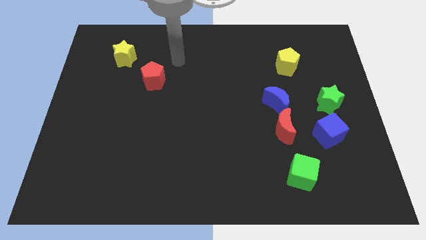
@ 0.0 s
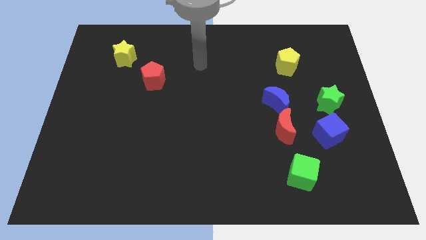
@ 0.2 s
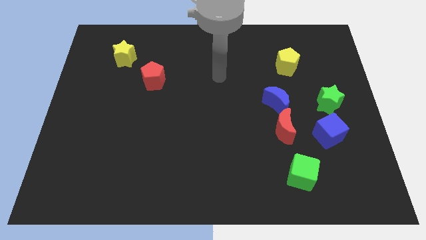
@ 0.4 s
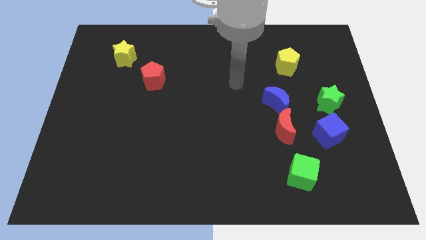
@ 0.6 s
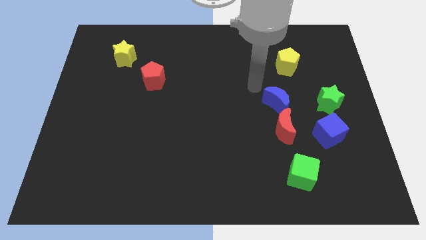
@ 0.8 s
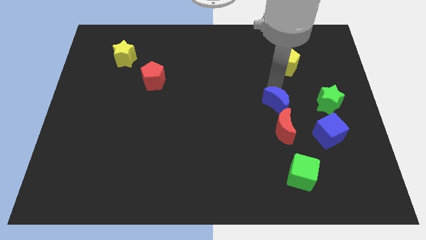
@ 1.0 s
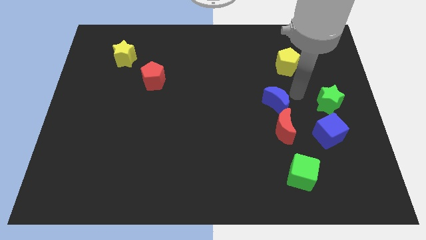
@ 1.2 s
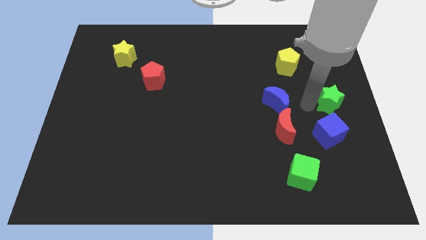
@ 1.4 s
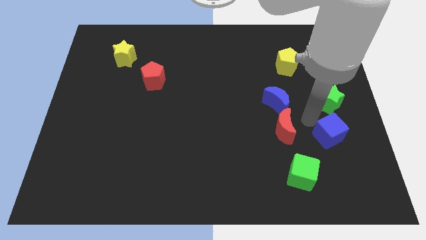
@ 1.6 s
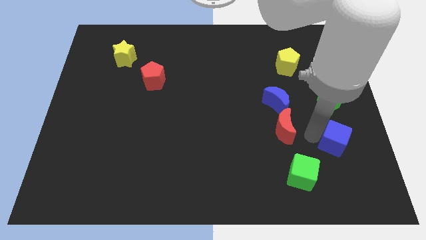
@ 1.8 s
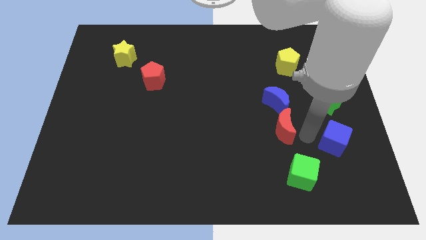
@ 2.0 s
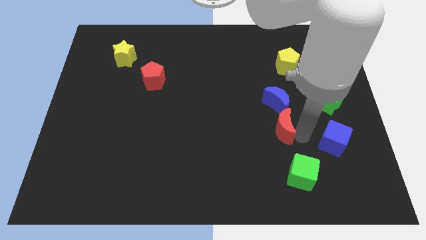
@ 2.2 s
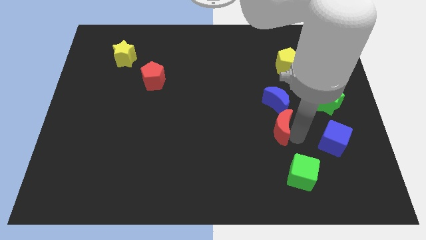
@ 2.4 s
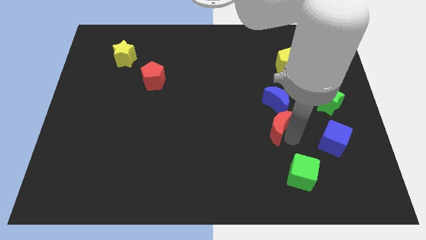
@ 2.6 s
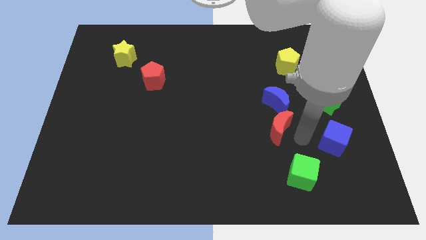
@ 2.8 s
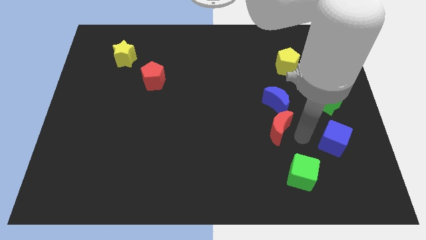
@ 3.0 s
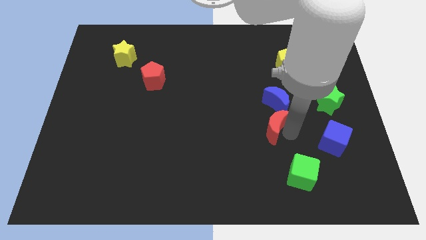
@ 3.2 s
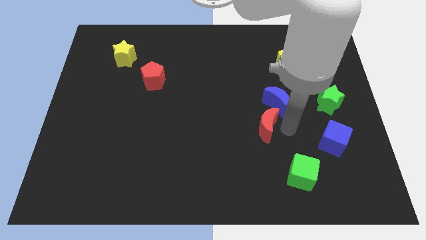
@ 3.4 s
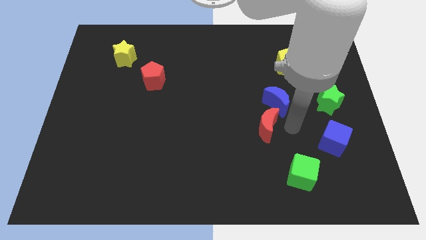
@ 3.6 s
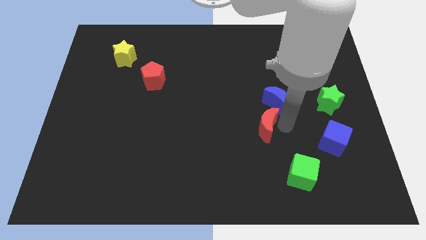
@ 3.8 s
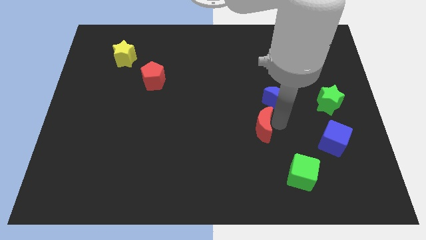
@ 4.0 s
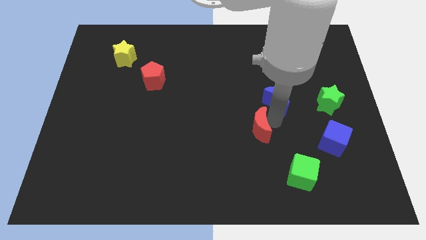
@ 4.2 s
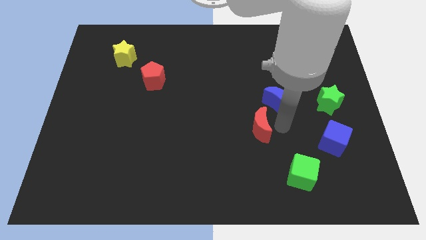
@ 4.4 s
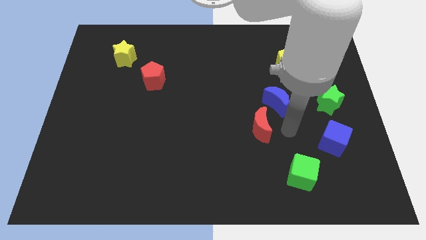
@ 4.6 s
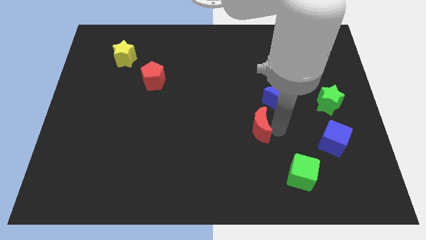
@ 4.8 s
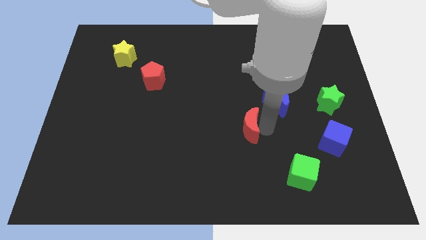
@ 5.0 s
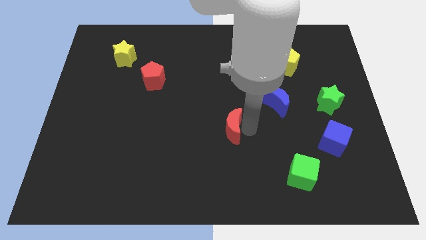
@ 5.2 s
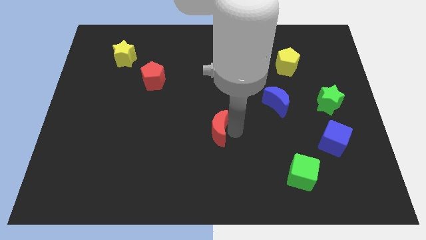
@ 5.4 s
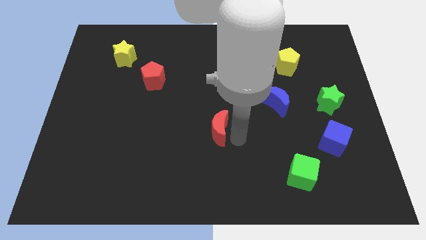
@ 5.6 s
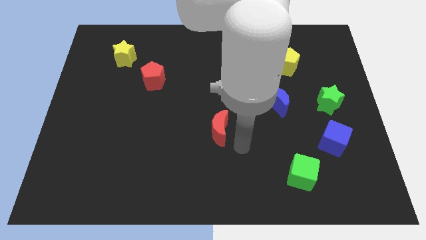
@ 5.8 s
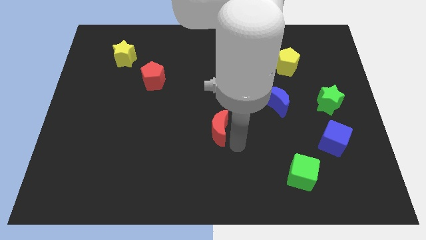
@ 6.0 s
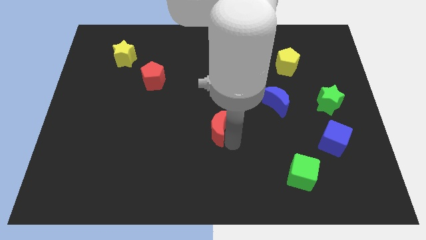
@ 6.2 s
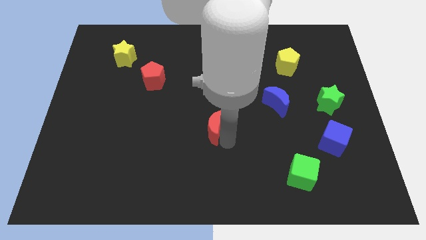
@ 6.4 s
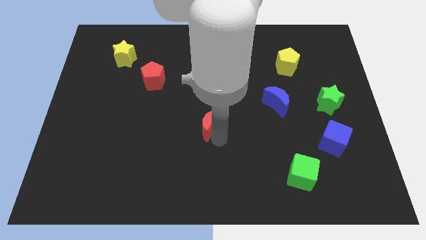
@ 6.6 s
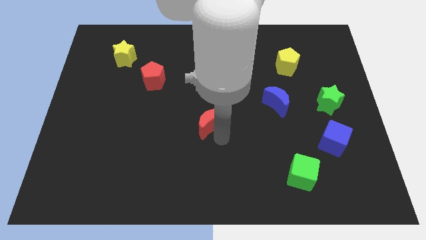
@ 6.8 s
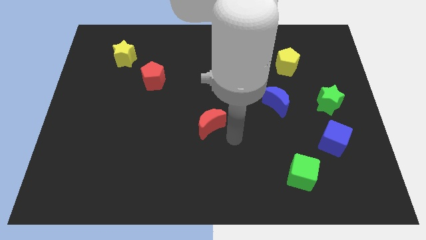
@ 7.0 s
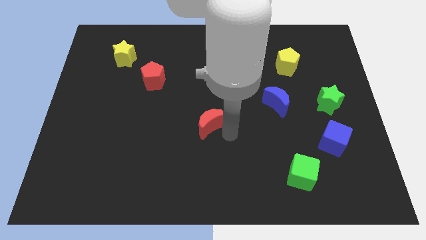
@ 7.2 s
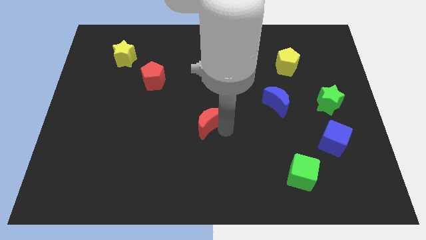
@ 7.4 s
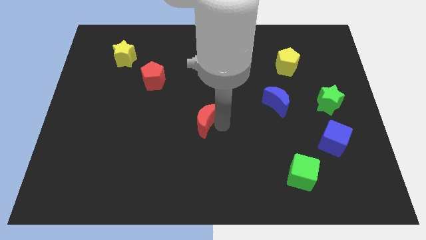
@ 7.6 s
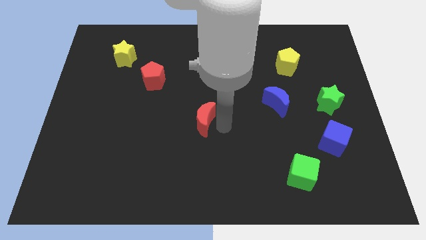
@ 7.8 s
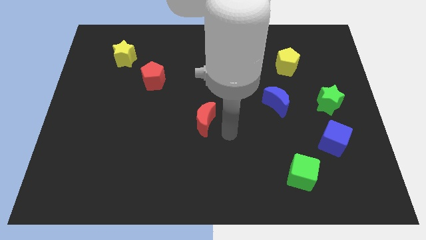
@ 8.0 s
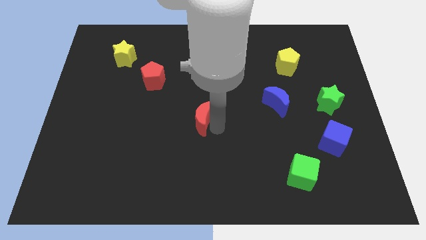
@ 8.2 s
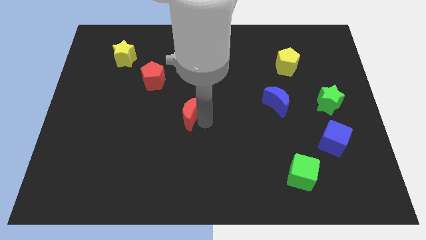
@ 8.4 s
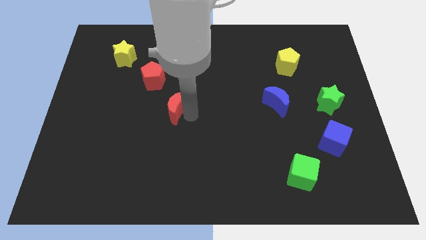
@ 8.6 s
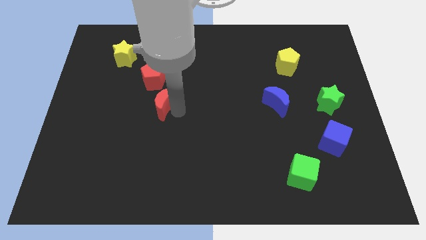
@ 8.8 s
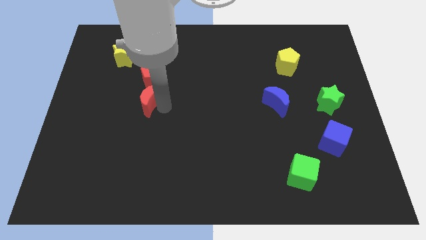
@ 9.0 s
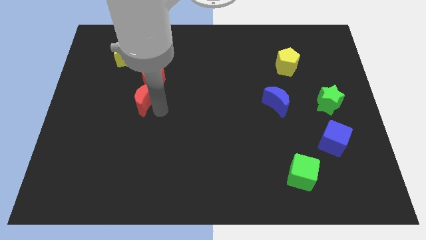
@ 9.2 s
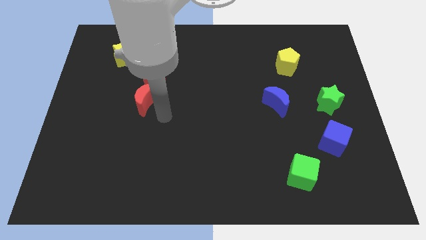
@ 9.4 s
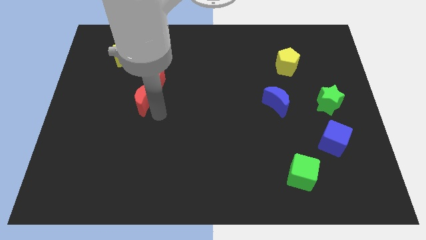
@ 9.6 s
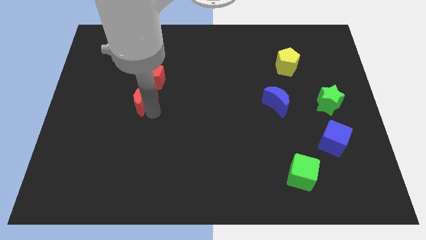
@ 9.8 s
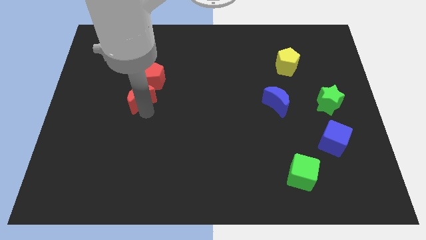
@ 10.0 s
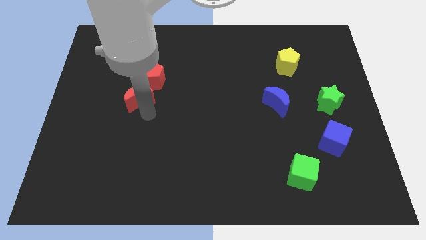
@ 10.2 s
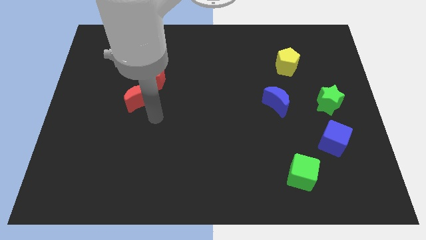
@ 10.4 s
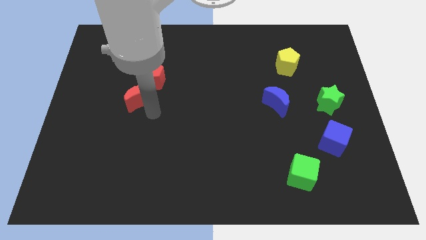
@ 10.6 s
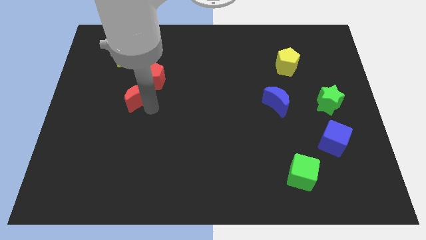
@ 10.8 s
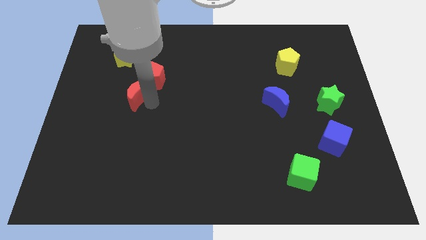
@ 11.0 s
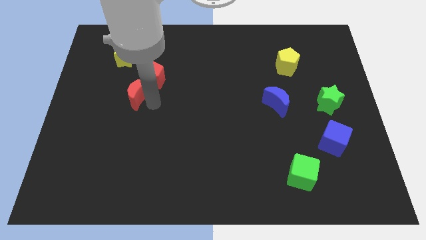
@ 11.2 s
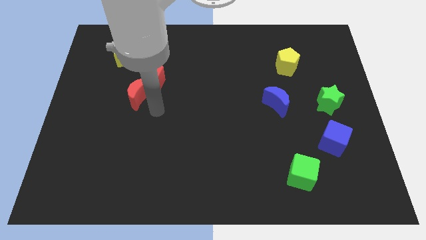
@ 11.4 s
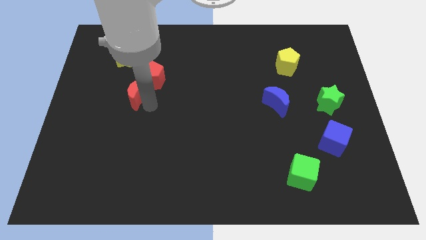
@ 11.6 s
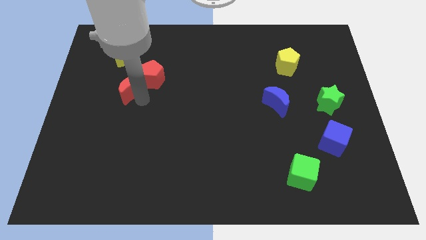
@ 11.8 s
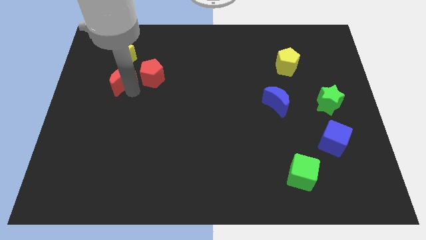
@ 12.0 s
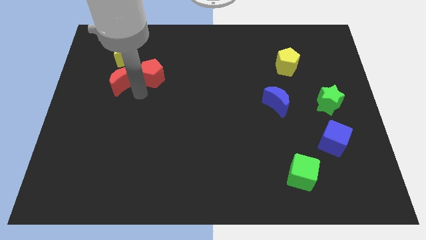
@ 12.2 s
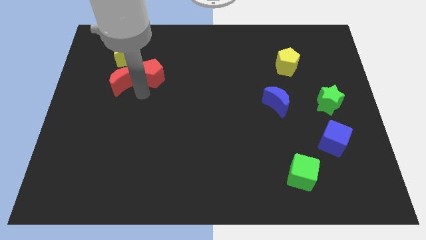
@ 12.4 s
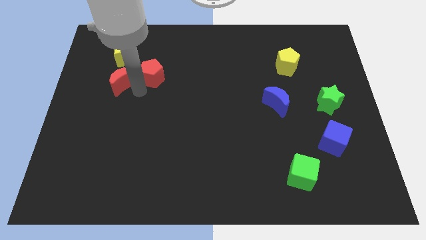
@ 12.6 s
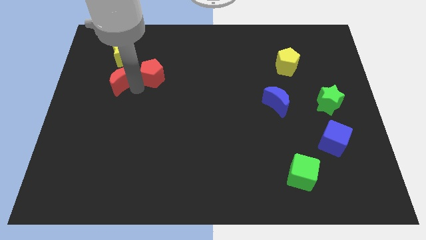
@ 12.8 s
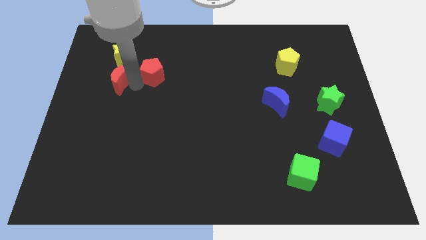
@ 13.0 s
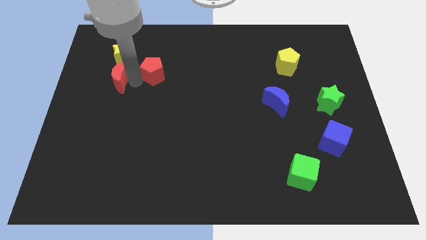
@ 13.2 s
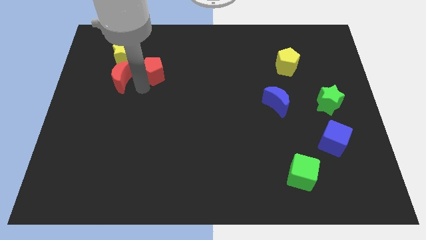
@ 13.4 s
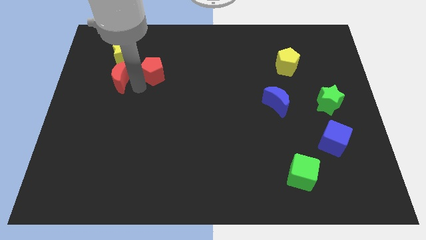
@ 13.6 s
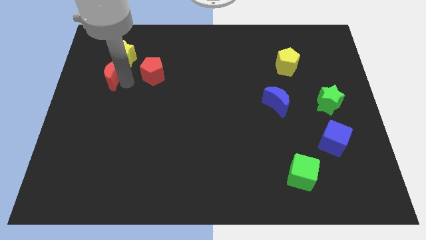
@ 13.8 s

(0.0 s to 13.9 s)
put the red moon diagonally down and to the left of the yellow star
